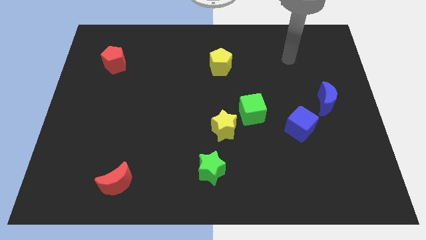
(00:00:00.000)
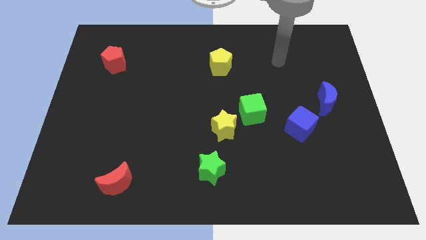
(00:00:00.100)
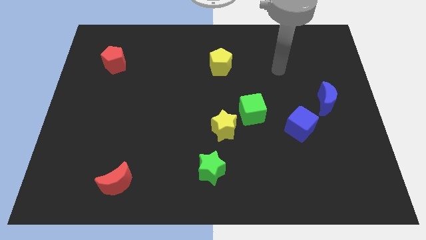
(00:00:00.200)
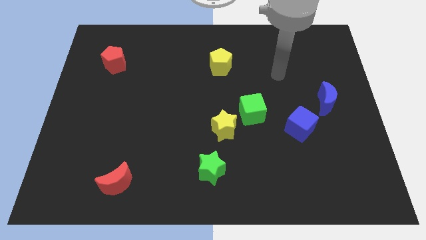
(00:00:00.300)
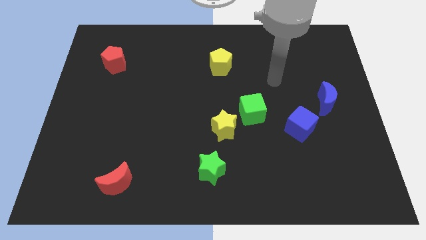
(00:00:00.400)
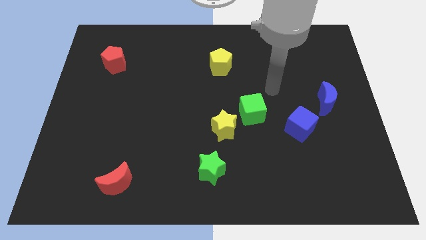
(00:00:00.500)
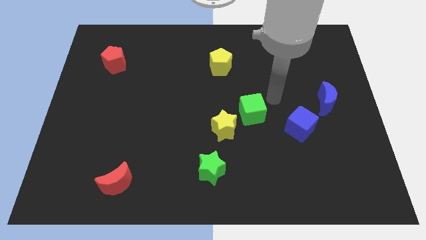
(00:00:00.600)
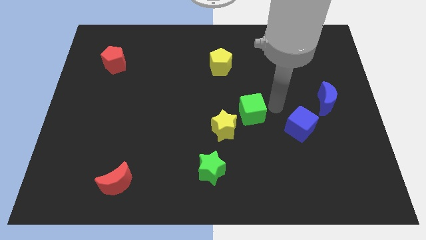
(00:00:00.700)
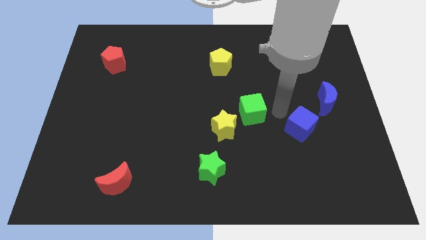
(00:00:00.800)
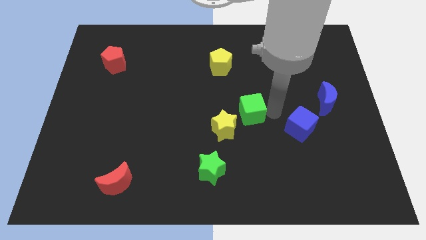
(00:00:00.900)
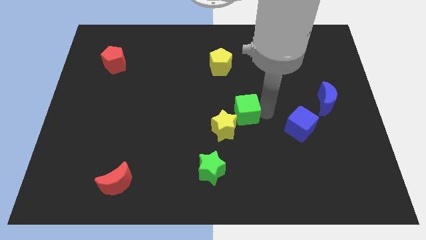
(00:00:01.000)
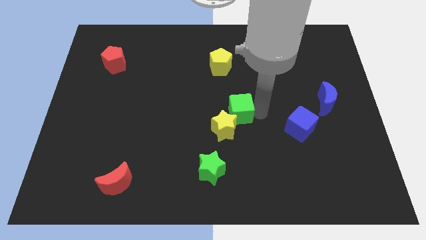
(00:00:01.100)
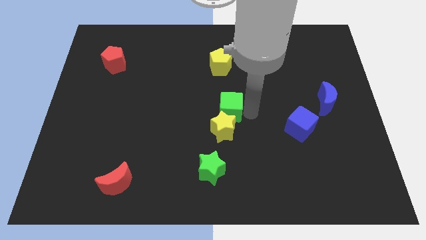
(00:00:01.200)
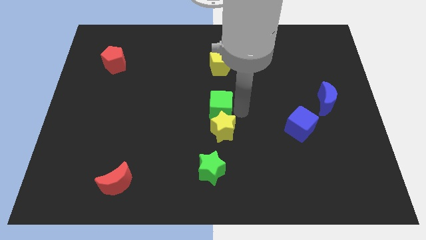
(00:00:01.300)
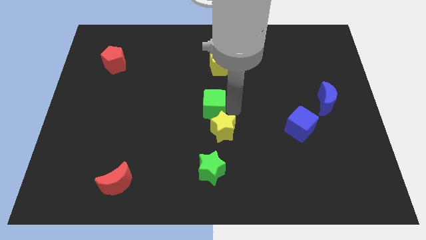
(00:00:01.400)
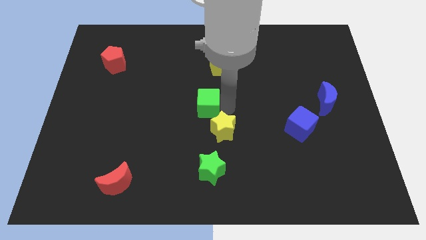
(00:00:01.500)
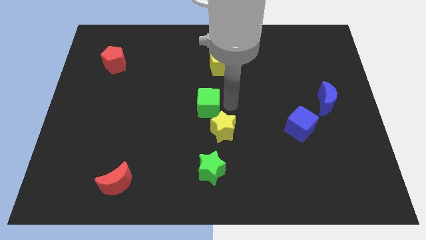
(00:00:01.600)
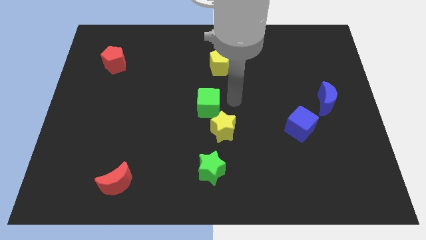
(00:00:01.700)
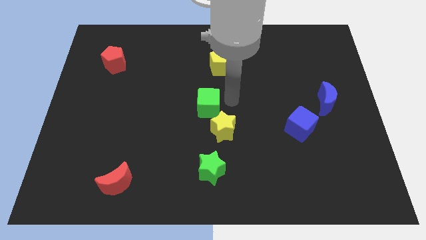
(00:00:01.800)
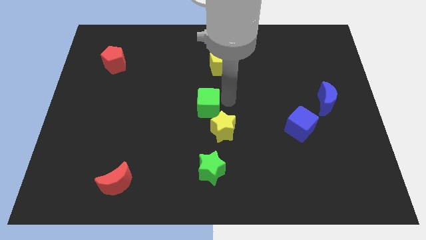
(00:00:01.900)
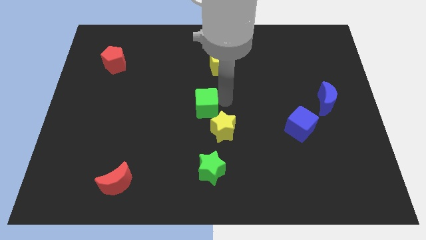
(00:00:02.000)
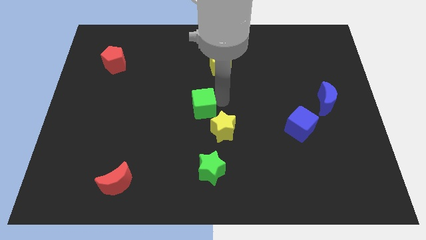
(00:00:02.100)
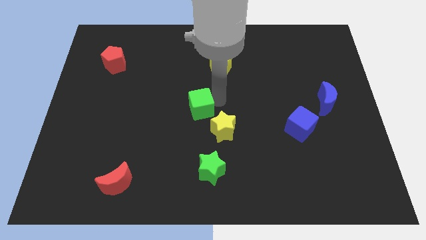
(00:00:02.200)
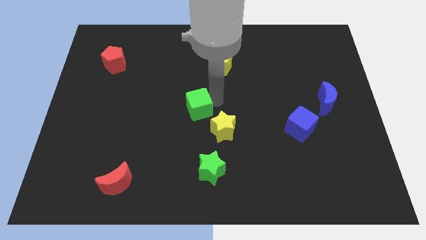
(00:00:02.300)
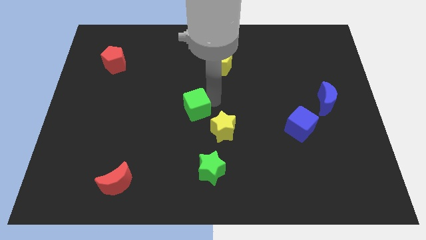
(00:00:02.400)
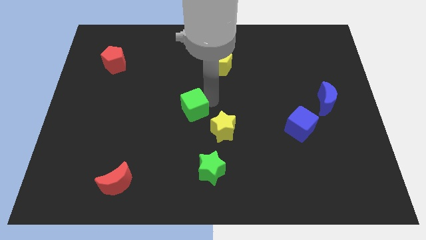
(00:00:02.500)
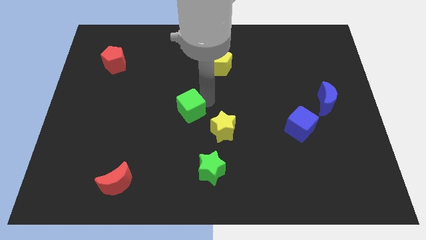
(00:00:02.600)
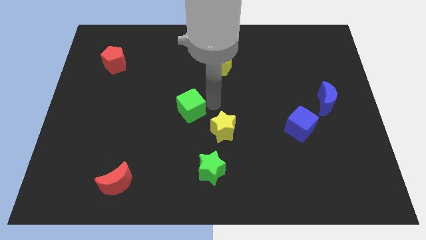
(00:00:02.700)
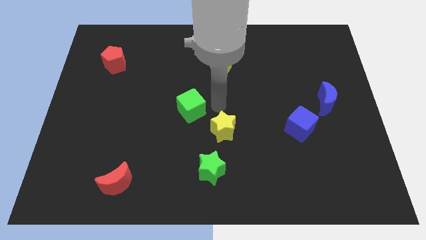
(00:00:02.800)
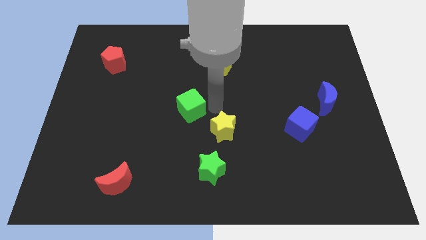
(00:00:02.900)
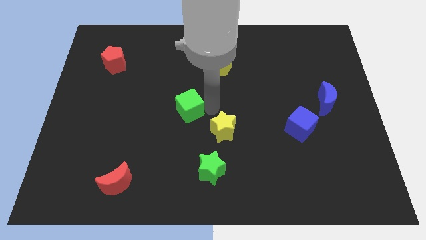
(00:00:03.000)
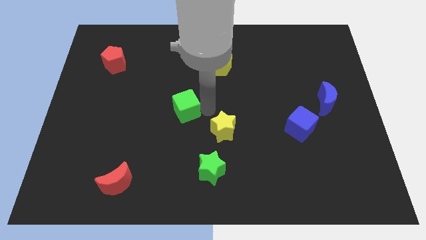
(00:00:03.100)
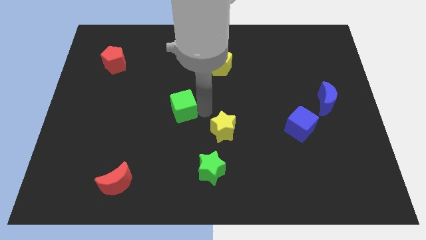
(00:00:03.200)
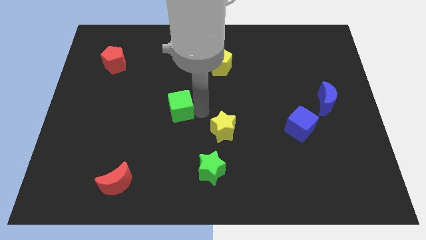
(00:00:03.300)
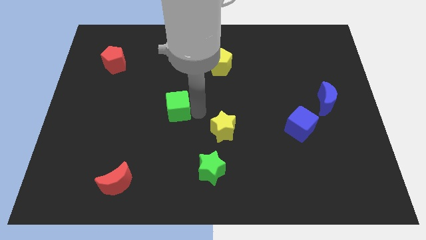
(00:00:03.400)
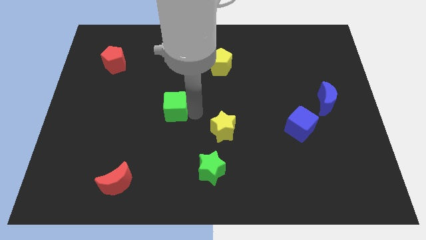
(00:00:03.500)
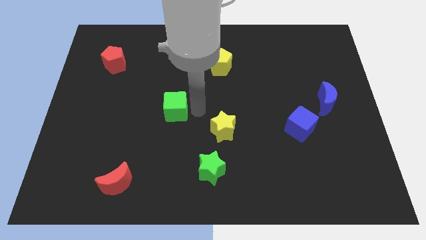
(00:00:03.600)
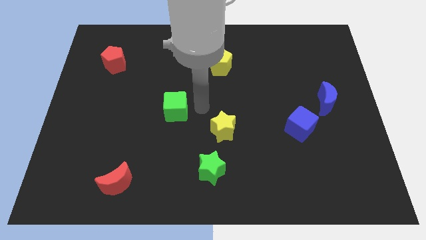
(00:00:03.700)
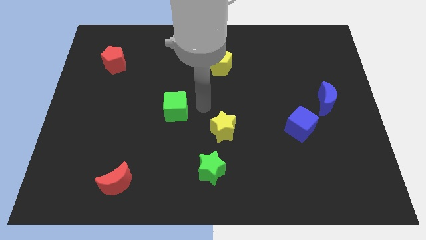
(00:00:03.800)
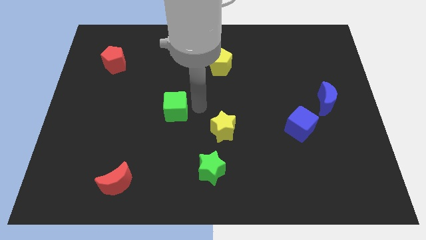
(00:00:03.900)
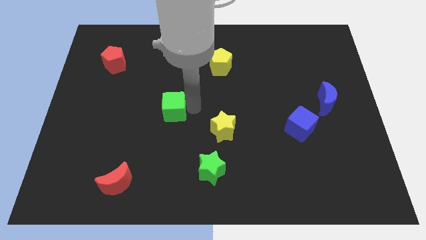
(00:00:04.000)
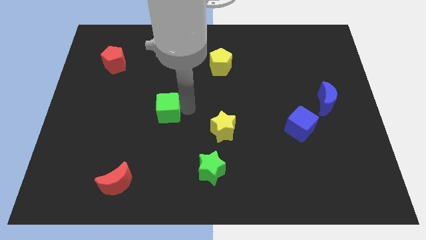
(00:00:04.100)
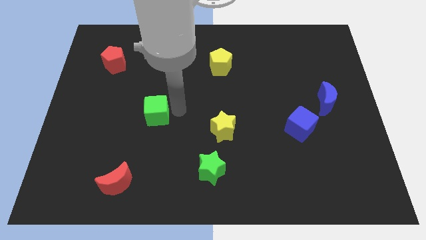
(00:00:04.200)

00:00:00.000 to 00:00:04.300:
move the green cube left

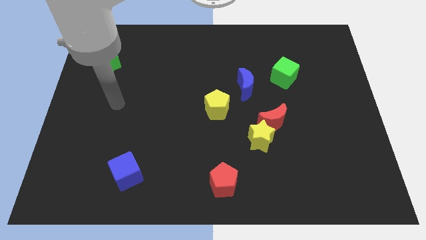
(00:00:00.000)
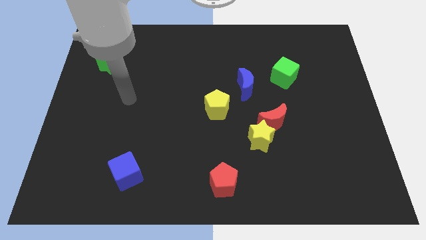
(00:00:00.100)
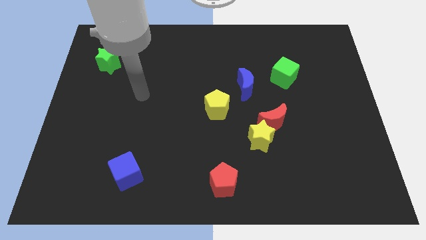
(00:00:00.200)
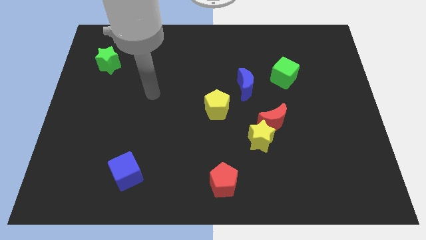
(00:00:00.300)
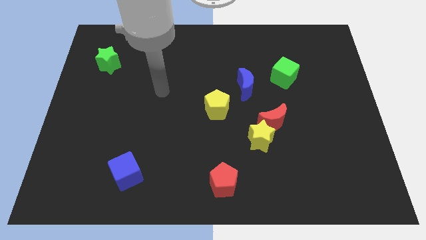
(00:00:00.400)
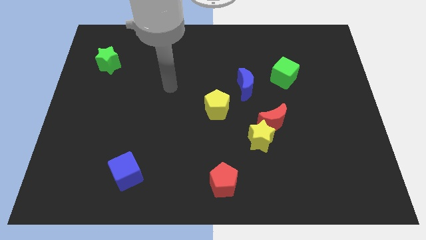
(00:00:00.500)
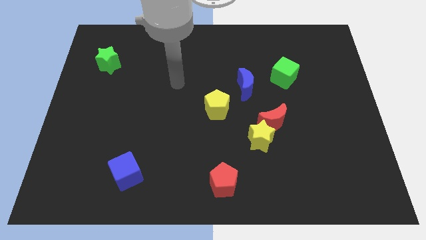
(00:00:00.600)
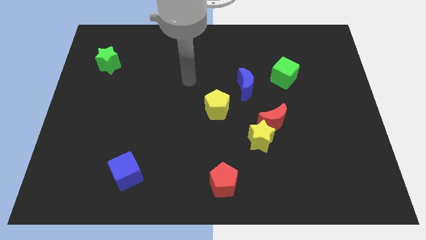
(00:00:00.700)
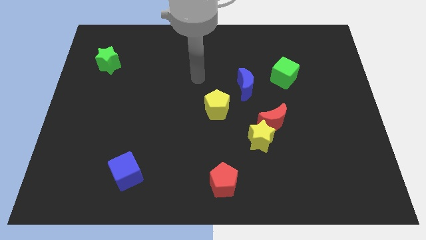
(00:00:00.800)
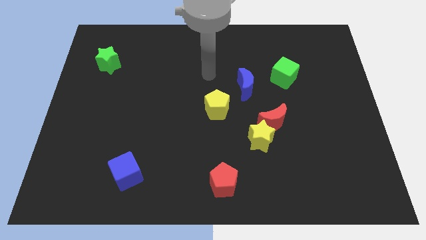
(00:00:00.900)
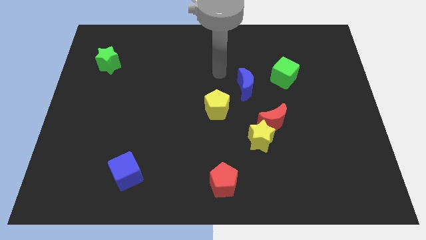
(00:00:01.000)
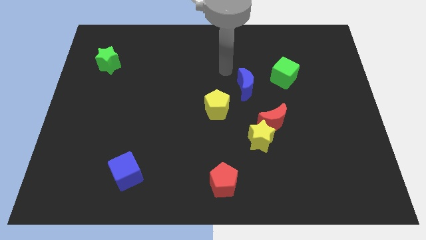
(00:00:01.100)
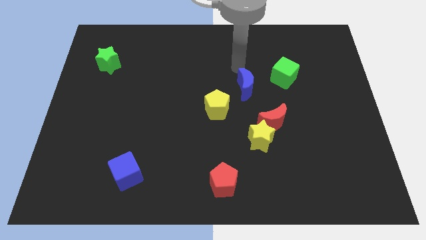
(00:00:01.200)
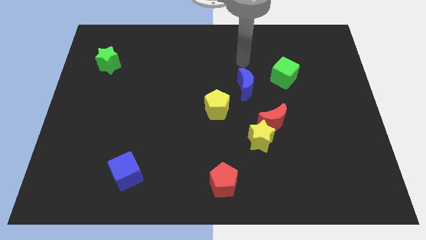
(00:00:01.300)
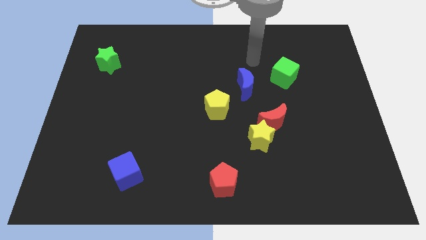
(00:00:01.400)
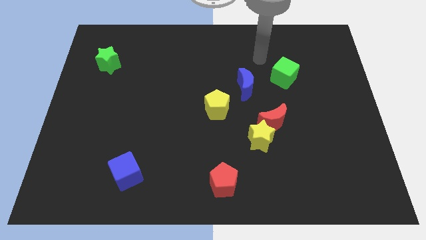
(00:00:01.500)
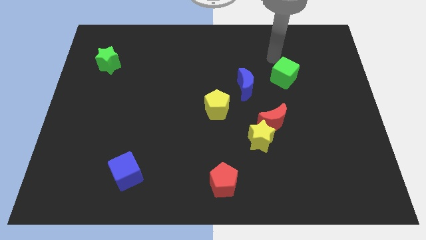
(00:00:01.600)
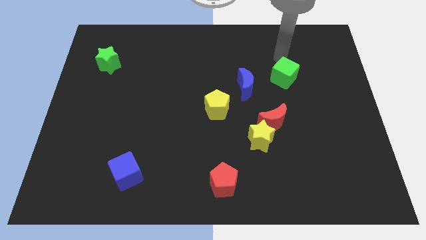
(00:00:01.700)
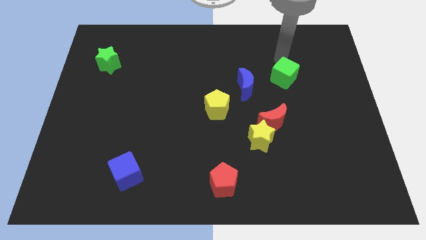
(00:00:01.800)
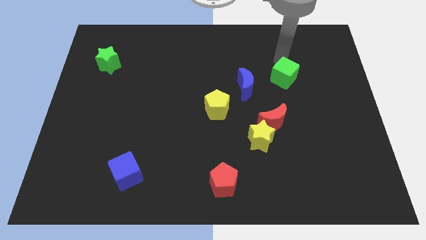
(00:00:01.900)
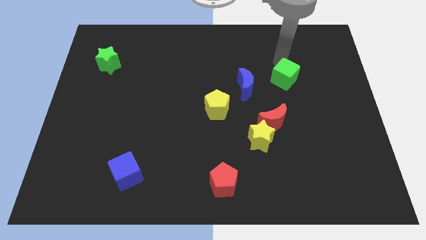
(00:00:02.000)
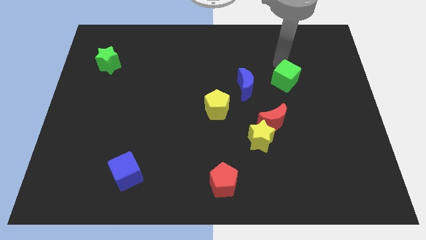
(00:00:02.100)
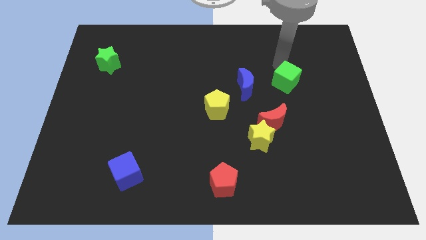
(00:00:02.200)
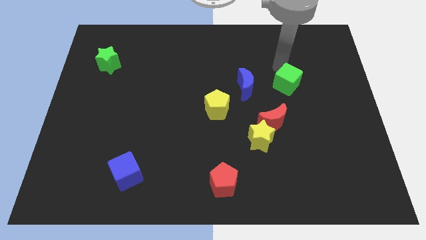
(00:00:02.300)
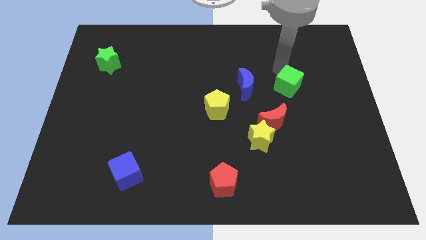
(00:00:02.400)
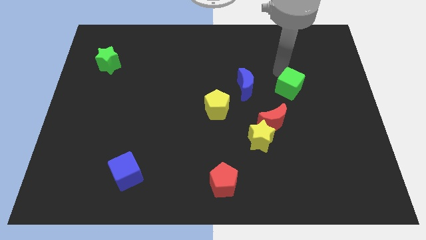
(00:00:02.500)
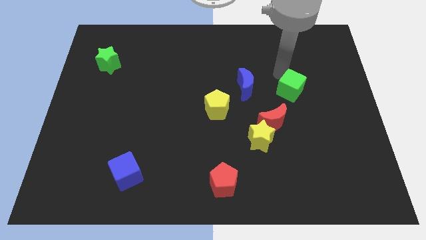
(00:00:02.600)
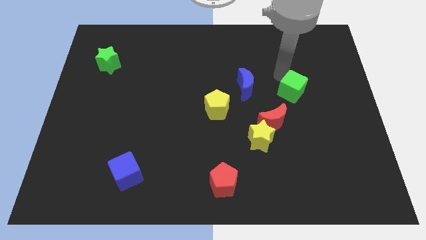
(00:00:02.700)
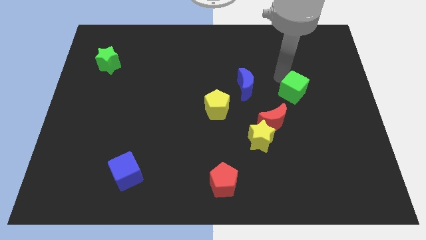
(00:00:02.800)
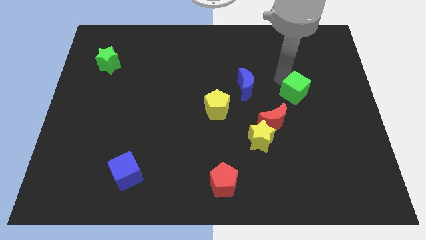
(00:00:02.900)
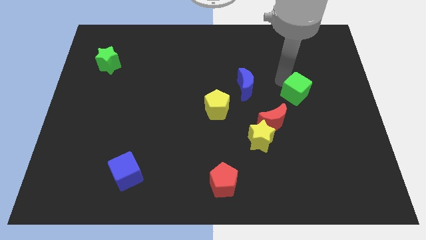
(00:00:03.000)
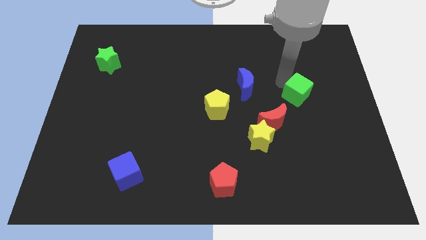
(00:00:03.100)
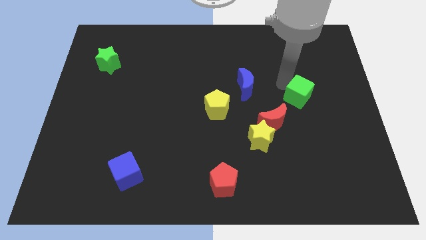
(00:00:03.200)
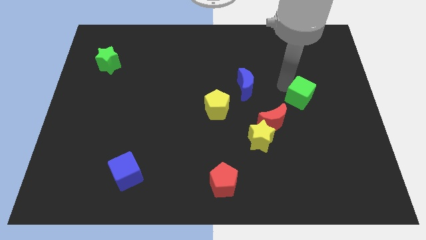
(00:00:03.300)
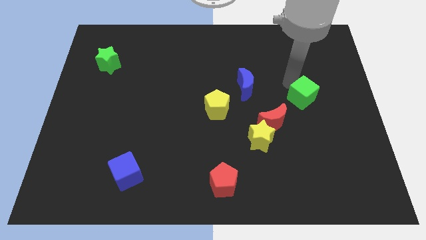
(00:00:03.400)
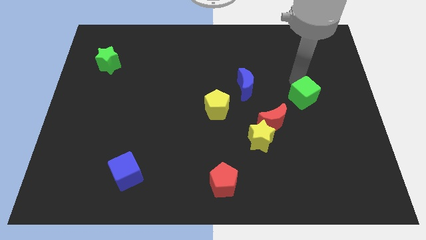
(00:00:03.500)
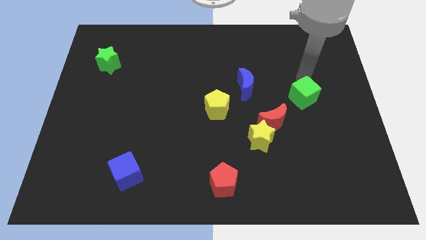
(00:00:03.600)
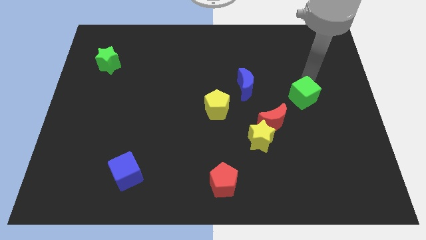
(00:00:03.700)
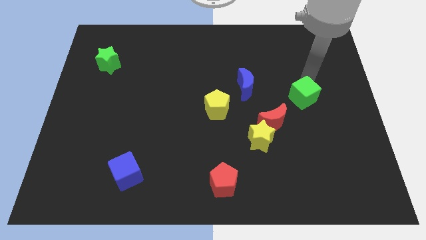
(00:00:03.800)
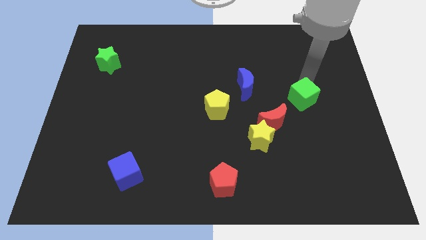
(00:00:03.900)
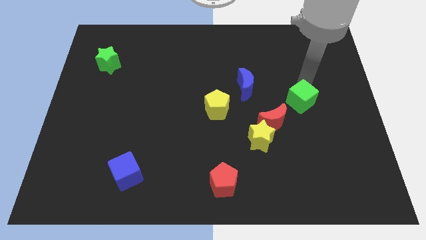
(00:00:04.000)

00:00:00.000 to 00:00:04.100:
move the green cube a little downwards
